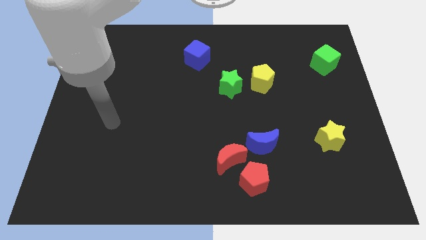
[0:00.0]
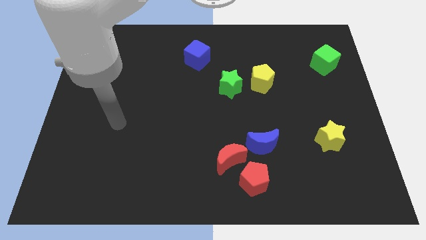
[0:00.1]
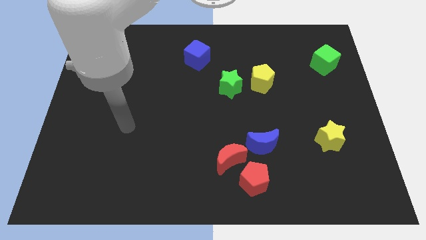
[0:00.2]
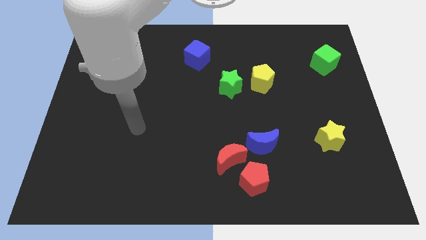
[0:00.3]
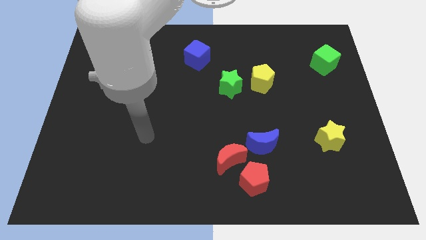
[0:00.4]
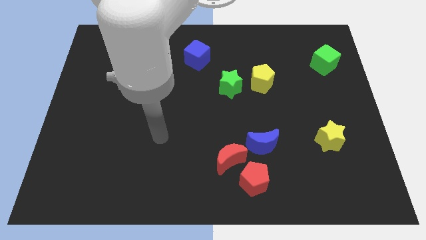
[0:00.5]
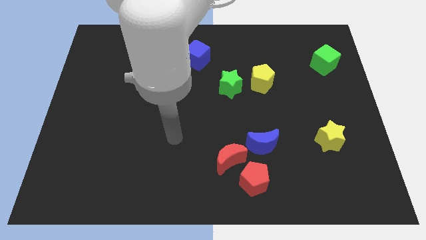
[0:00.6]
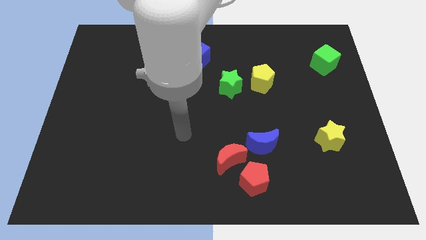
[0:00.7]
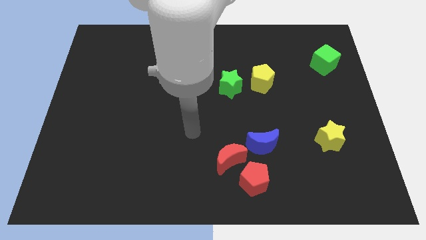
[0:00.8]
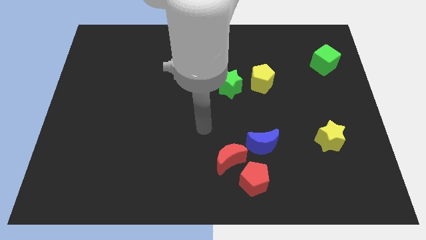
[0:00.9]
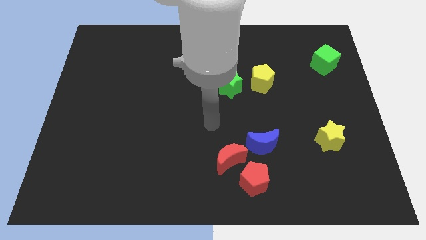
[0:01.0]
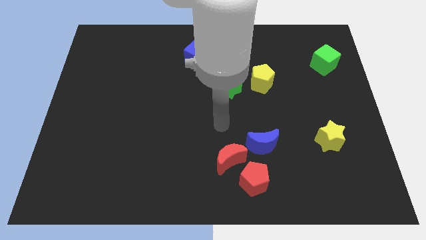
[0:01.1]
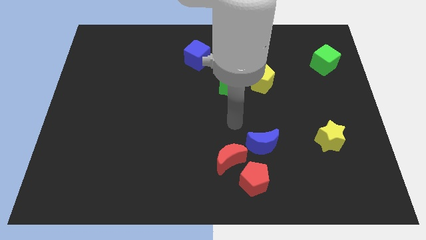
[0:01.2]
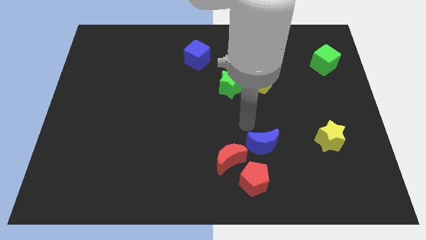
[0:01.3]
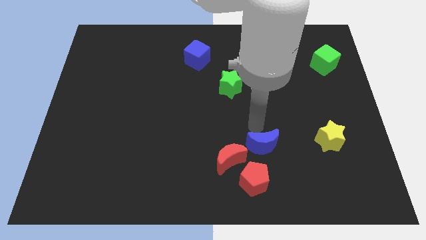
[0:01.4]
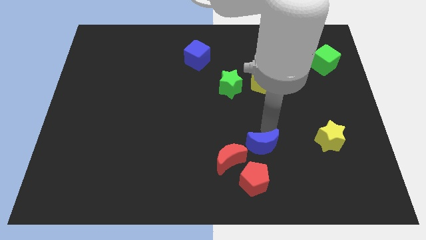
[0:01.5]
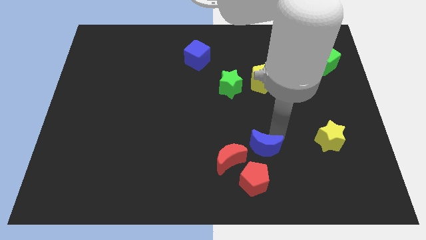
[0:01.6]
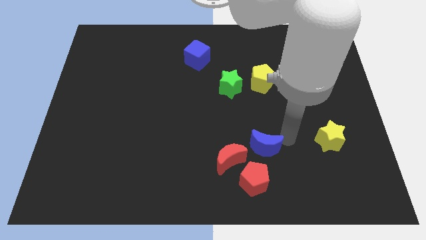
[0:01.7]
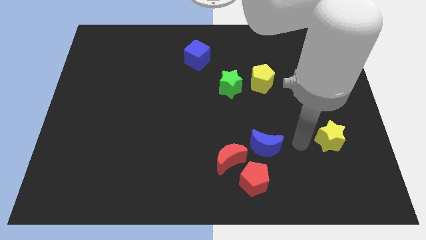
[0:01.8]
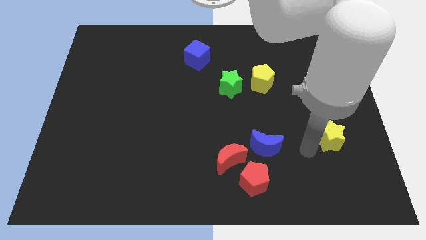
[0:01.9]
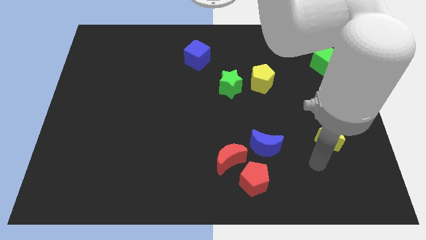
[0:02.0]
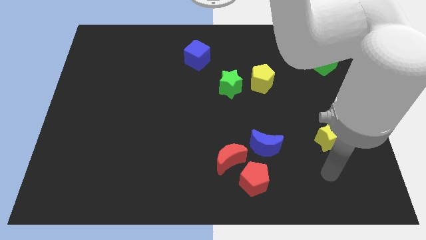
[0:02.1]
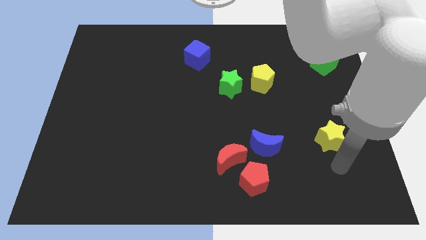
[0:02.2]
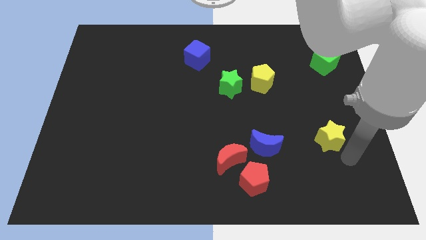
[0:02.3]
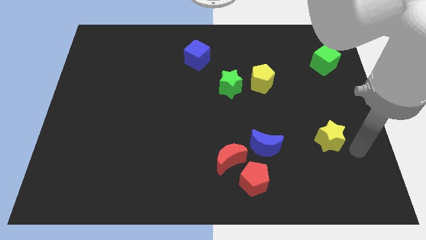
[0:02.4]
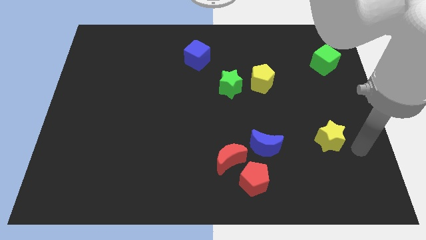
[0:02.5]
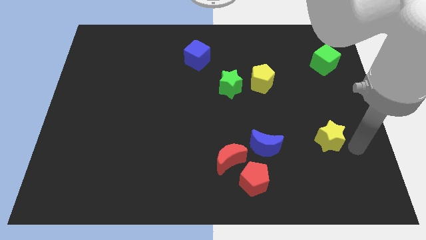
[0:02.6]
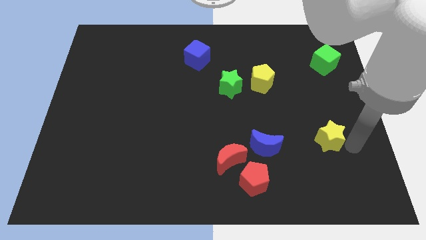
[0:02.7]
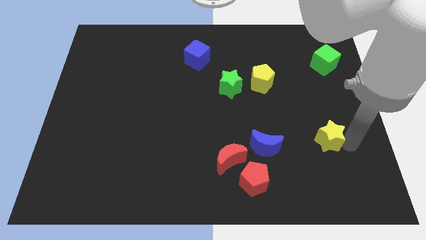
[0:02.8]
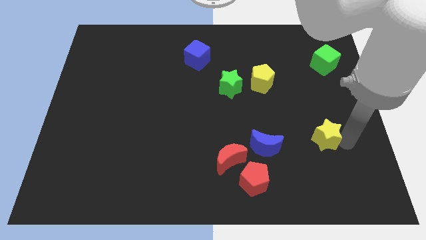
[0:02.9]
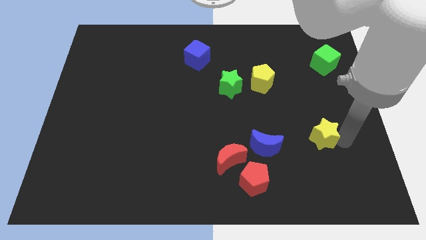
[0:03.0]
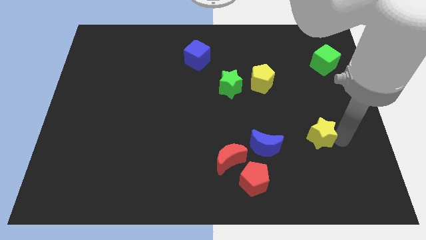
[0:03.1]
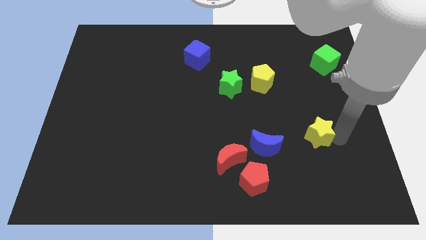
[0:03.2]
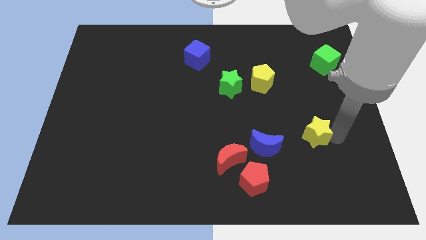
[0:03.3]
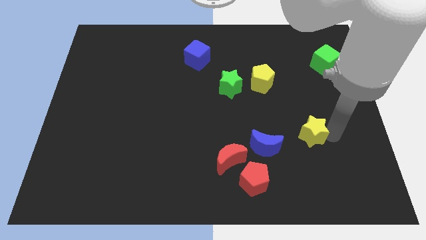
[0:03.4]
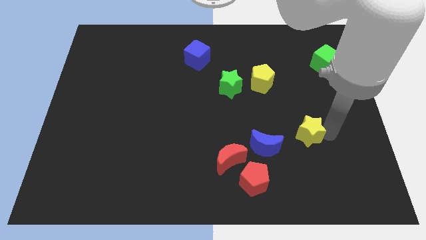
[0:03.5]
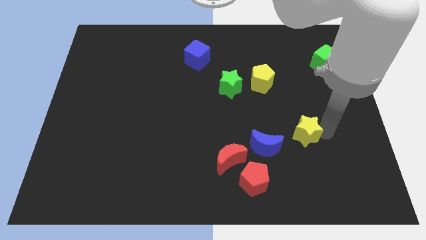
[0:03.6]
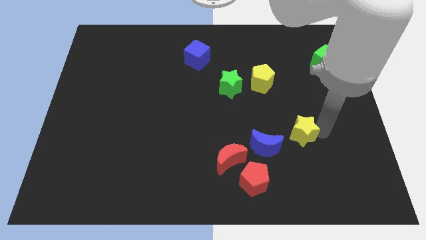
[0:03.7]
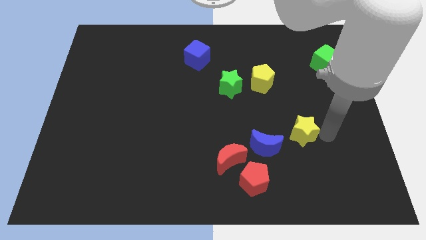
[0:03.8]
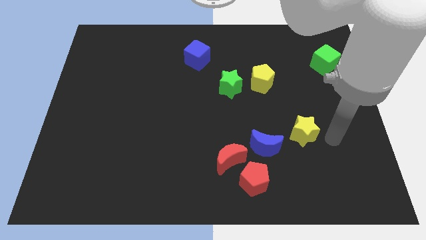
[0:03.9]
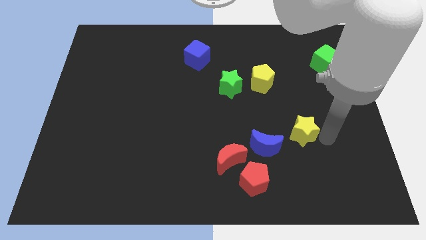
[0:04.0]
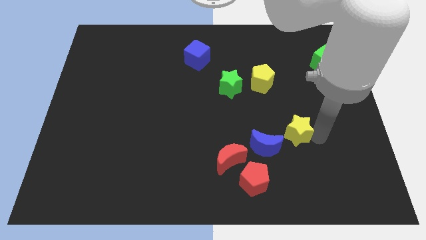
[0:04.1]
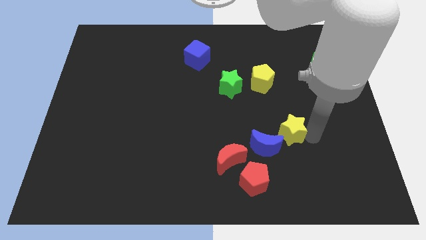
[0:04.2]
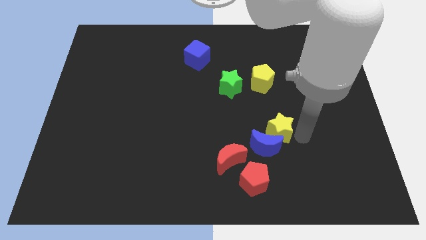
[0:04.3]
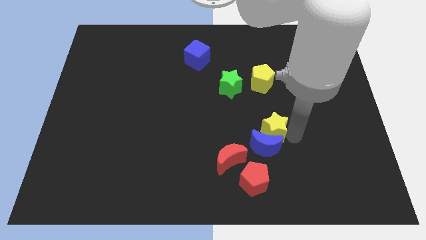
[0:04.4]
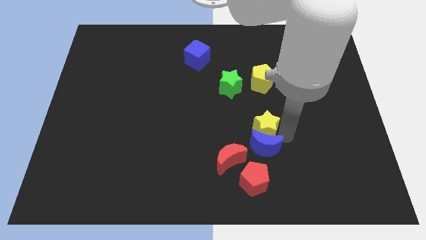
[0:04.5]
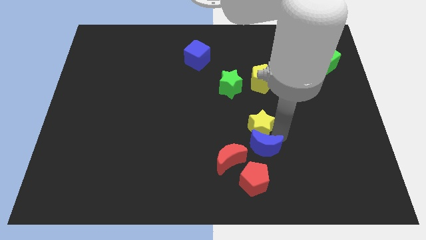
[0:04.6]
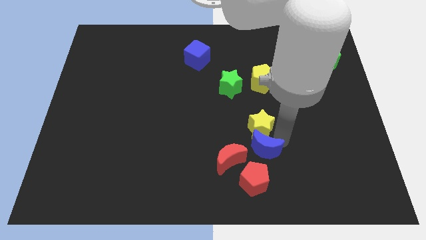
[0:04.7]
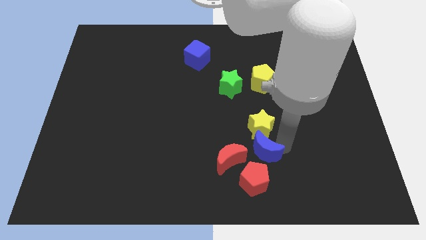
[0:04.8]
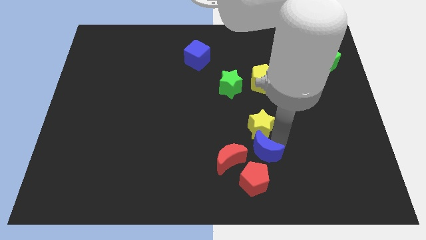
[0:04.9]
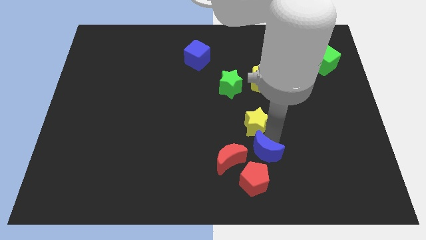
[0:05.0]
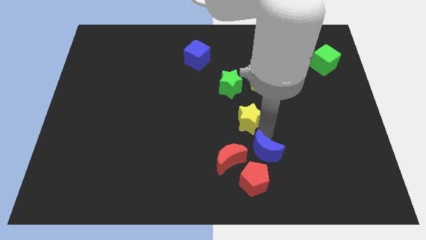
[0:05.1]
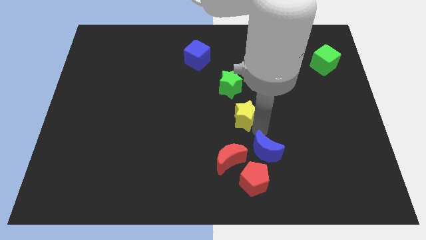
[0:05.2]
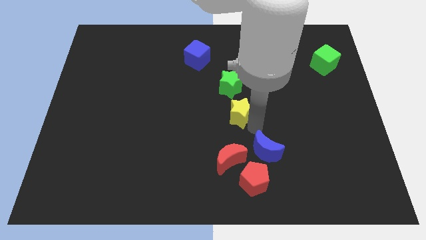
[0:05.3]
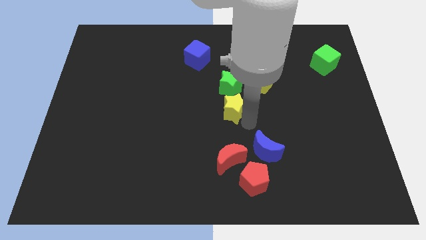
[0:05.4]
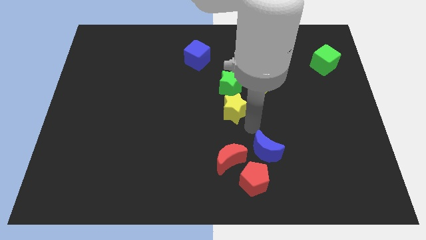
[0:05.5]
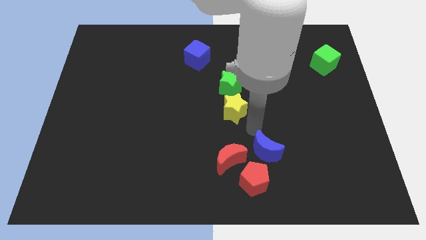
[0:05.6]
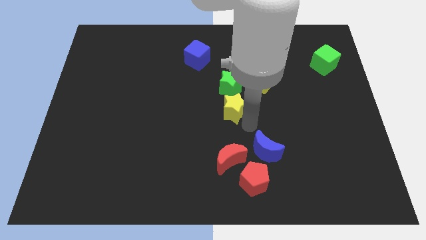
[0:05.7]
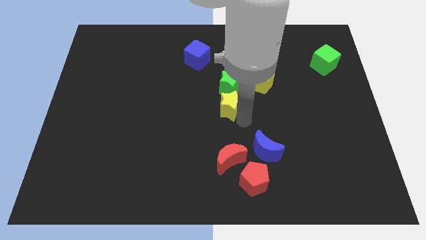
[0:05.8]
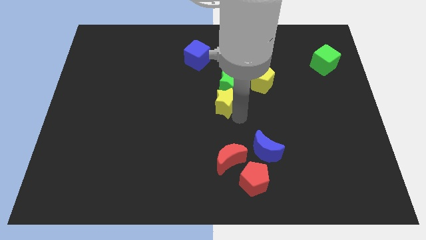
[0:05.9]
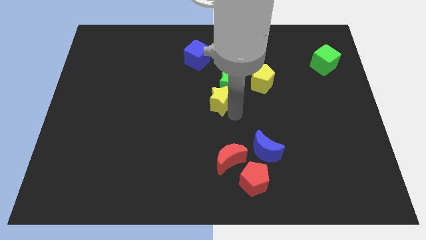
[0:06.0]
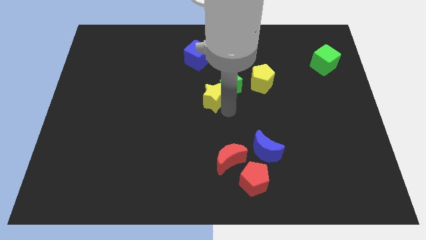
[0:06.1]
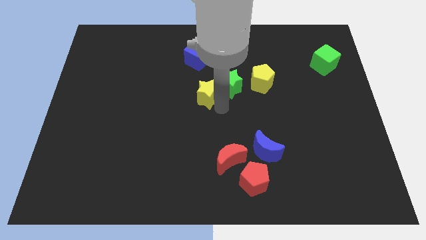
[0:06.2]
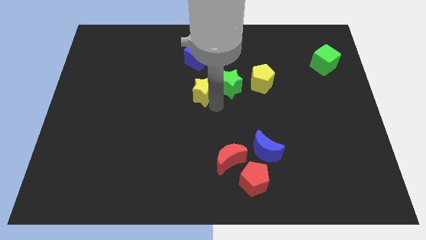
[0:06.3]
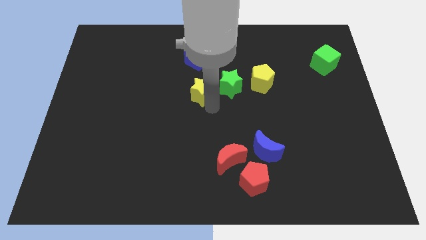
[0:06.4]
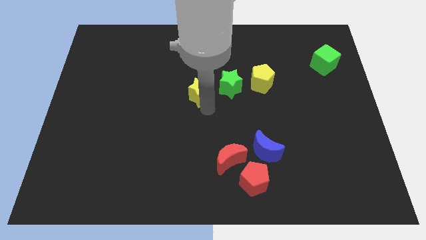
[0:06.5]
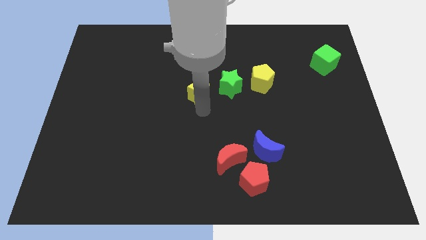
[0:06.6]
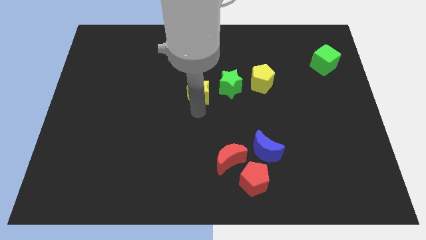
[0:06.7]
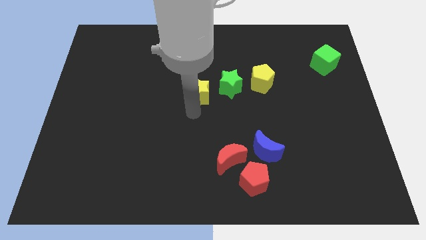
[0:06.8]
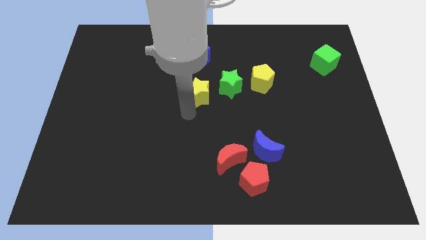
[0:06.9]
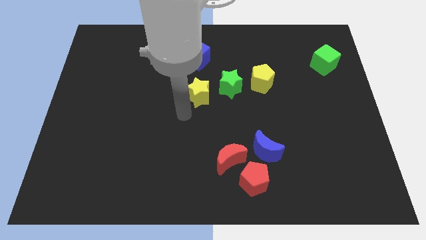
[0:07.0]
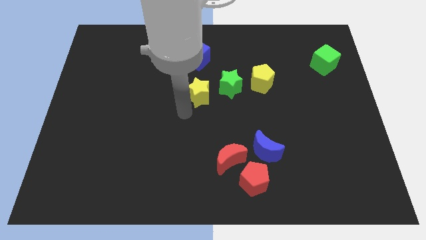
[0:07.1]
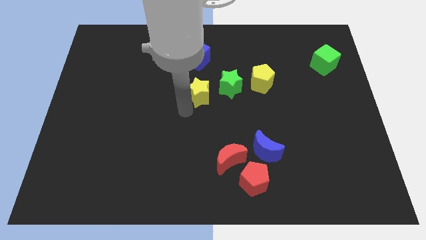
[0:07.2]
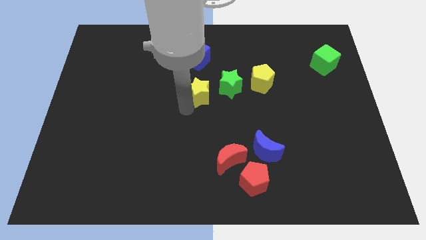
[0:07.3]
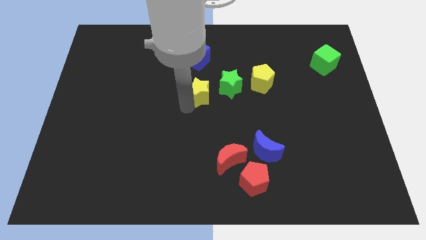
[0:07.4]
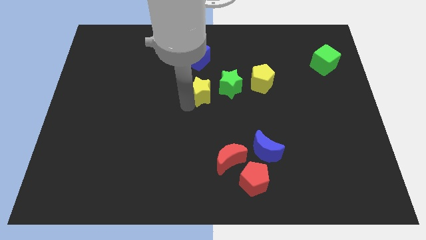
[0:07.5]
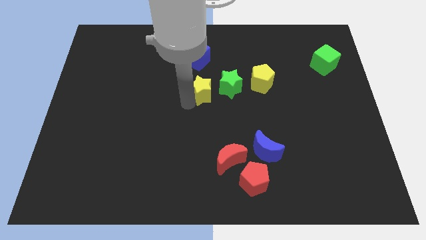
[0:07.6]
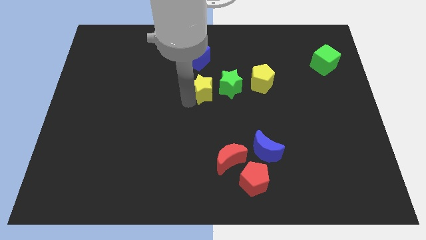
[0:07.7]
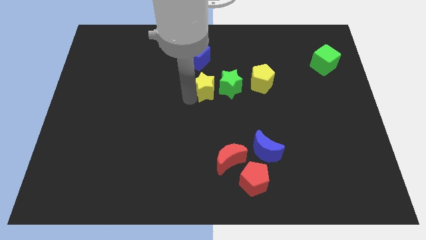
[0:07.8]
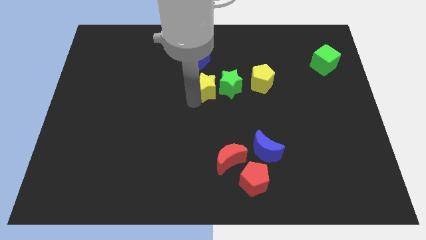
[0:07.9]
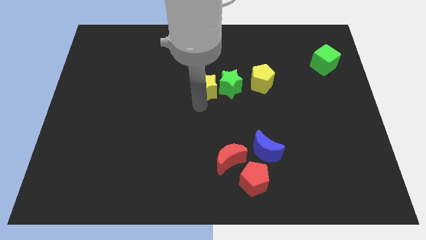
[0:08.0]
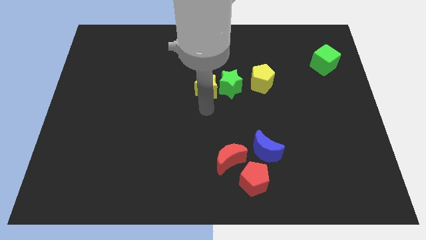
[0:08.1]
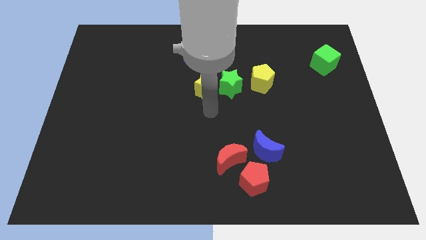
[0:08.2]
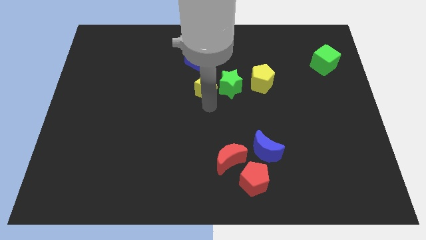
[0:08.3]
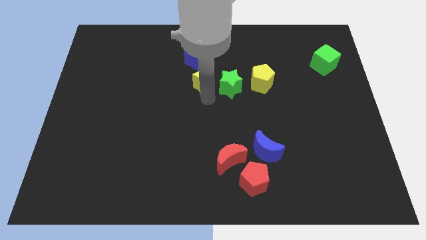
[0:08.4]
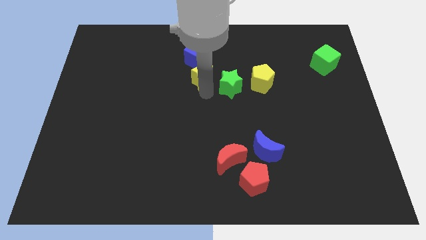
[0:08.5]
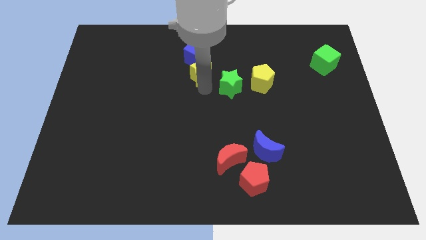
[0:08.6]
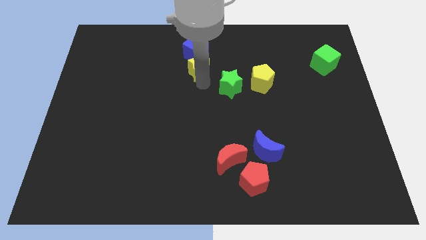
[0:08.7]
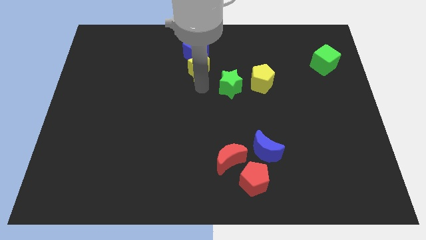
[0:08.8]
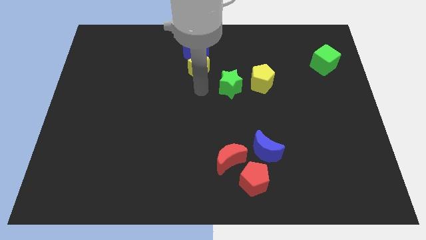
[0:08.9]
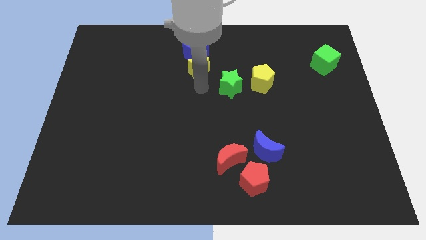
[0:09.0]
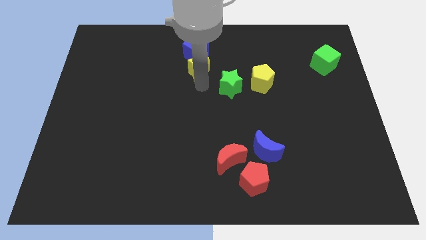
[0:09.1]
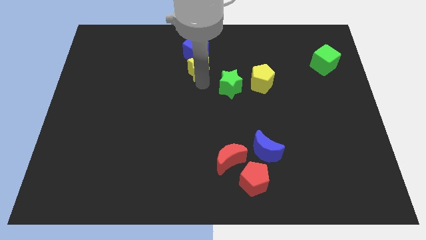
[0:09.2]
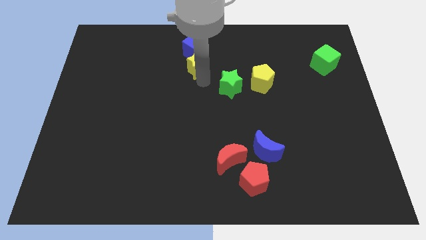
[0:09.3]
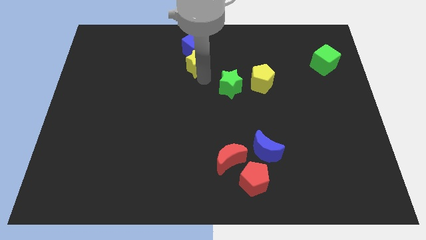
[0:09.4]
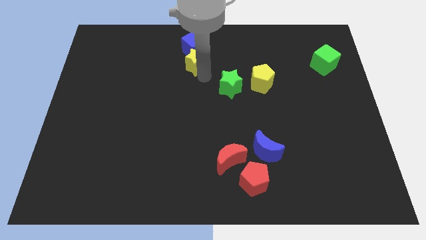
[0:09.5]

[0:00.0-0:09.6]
put the yellow star to the blue cube
